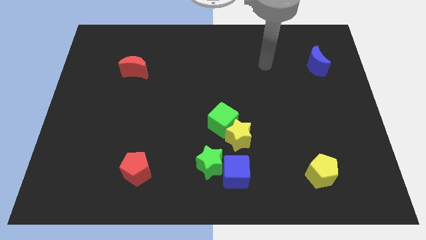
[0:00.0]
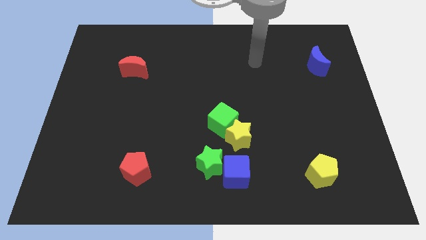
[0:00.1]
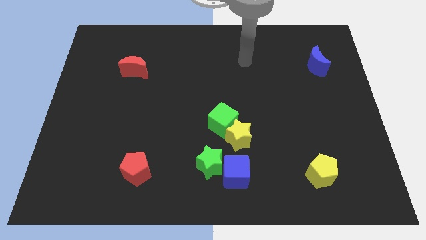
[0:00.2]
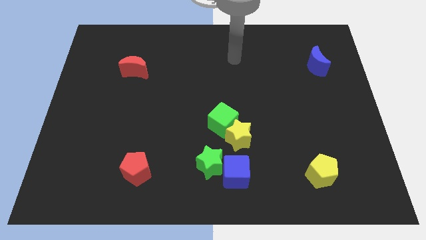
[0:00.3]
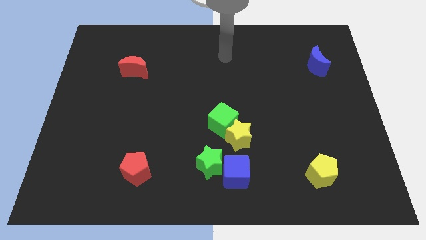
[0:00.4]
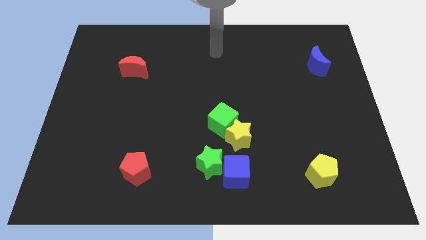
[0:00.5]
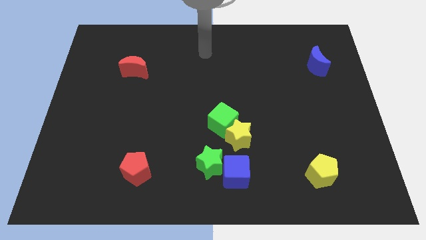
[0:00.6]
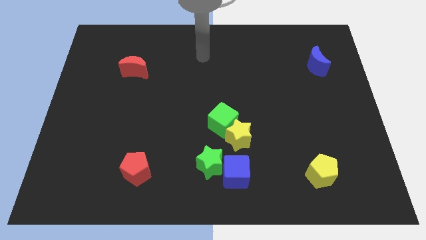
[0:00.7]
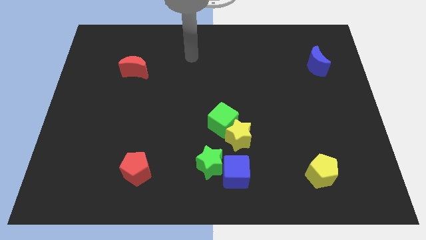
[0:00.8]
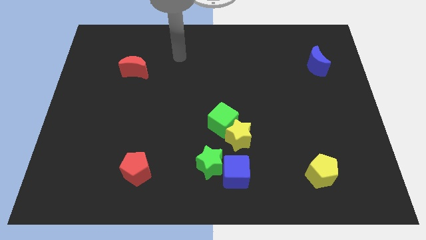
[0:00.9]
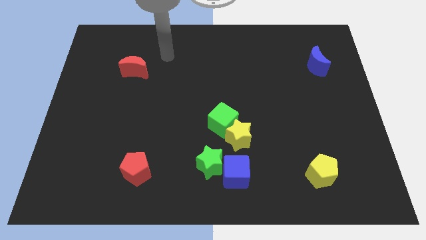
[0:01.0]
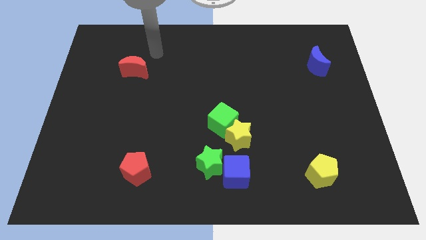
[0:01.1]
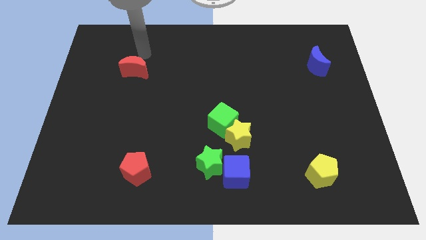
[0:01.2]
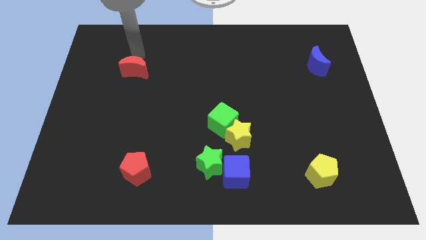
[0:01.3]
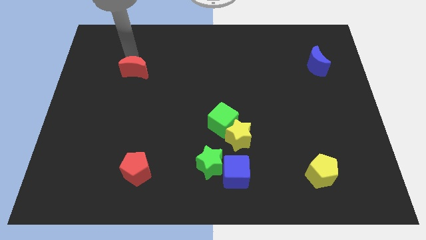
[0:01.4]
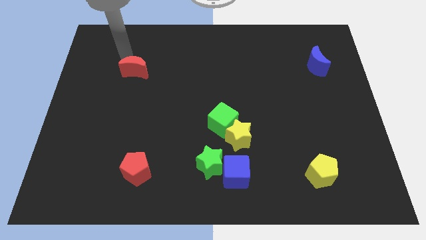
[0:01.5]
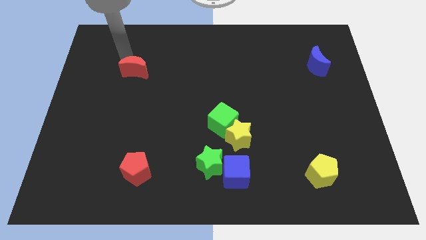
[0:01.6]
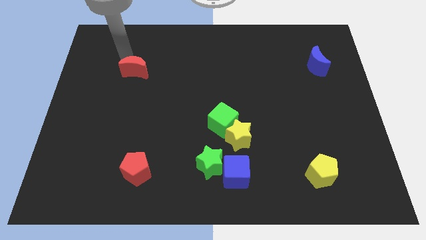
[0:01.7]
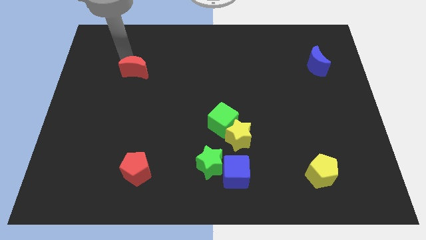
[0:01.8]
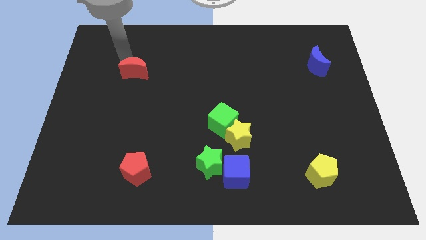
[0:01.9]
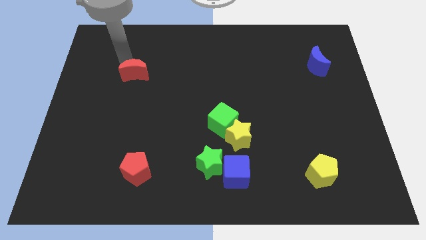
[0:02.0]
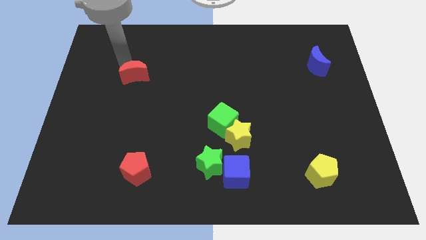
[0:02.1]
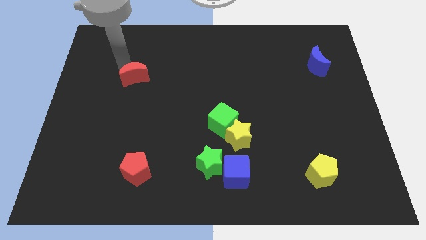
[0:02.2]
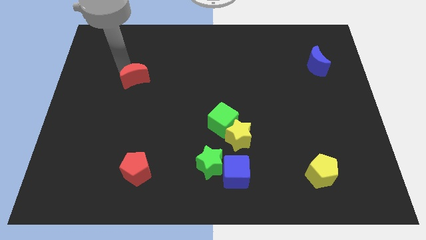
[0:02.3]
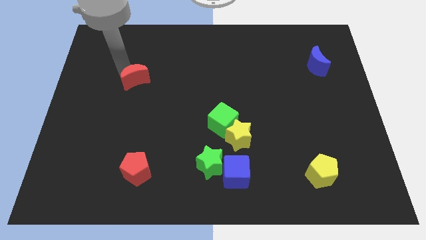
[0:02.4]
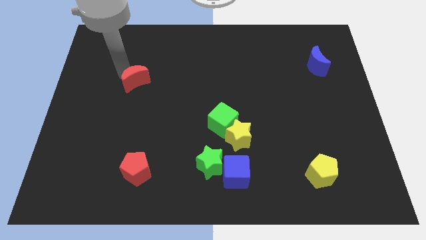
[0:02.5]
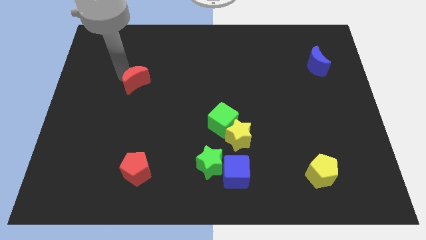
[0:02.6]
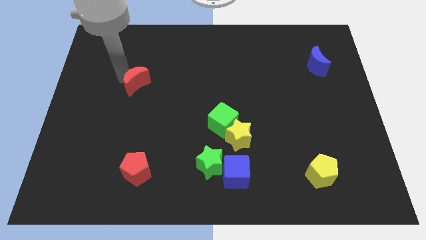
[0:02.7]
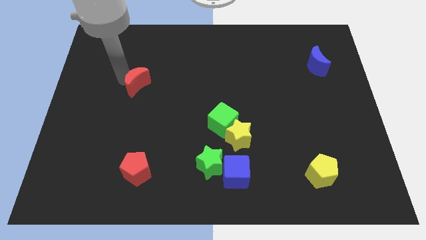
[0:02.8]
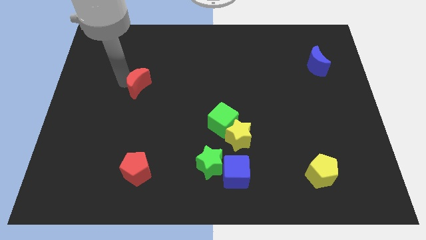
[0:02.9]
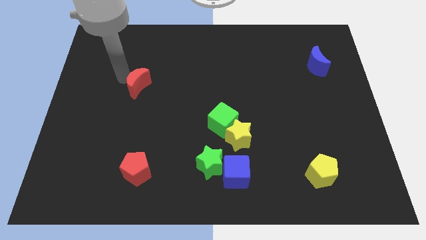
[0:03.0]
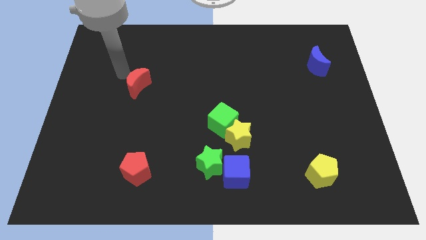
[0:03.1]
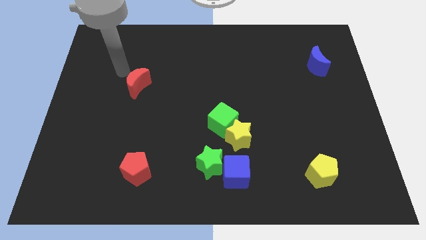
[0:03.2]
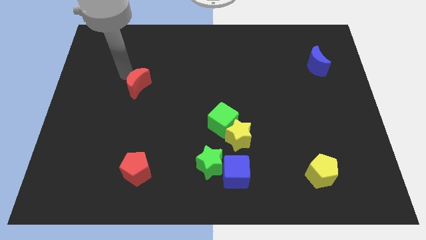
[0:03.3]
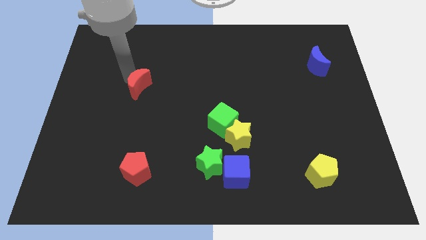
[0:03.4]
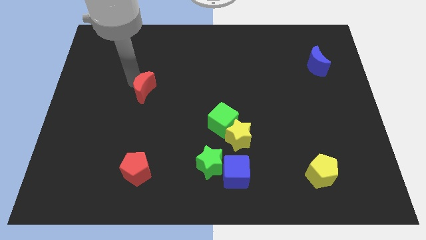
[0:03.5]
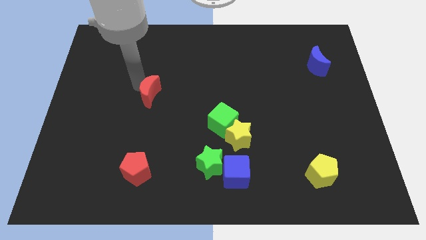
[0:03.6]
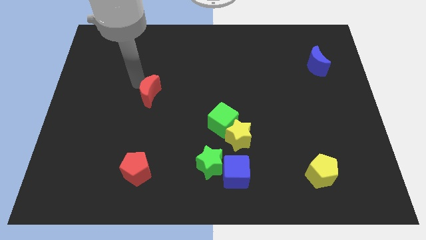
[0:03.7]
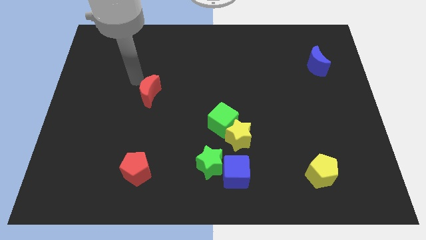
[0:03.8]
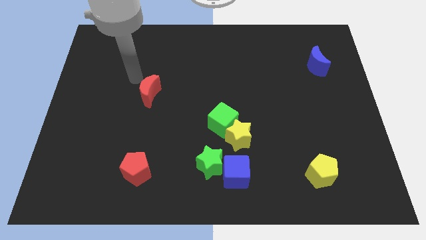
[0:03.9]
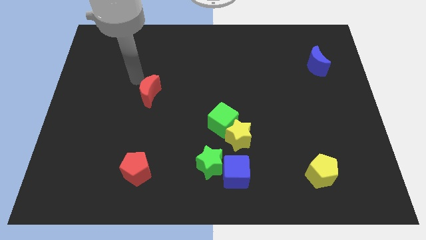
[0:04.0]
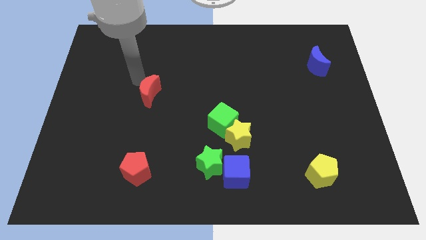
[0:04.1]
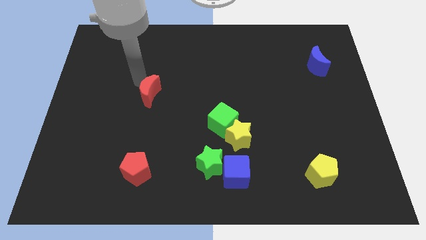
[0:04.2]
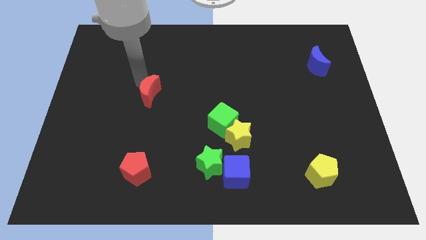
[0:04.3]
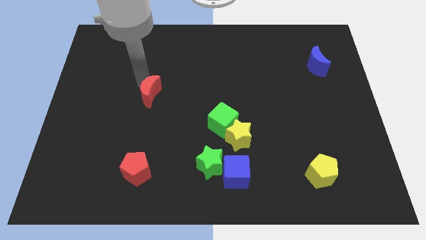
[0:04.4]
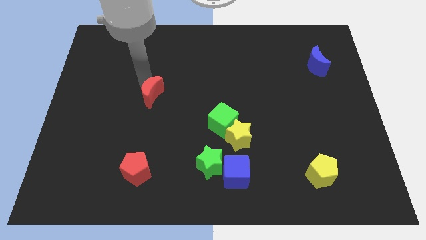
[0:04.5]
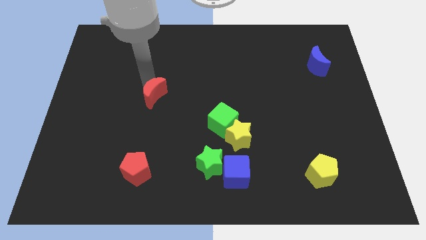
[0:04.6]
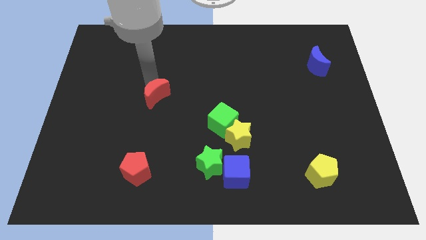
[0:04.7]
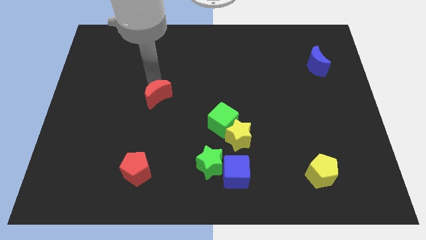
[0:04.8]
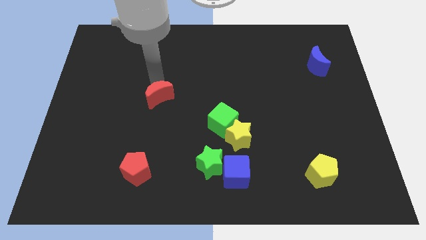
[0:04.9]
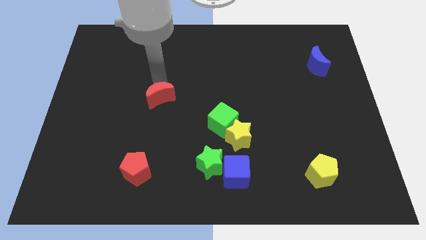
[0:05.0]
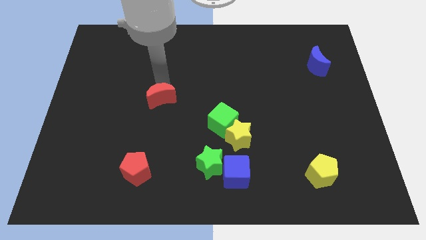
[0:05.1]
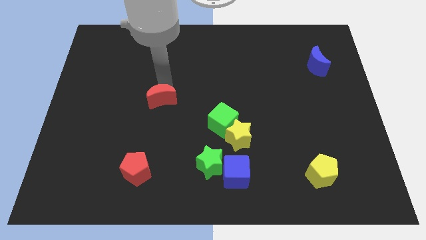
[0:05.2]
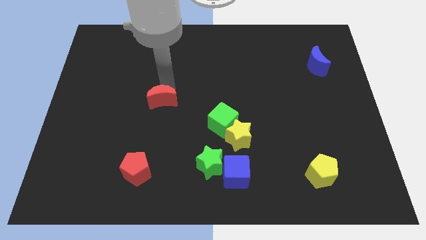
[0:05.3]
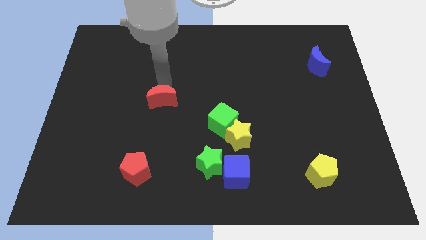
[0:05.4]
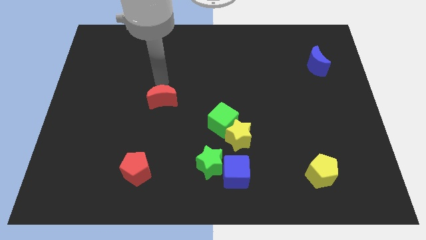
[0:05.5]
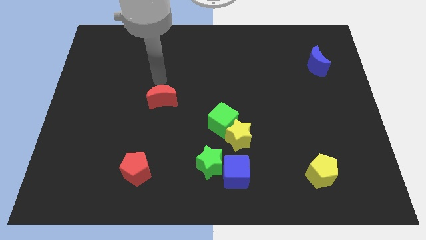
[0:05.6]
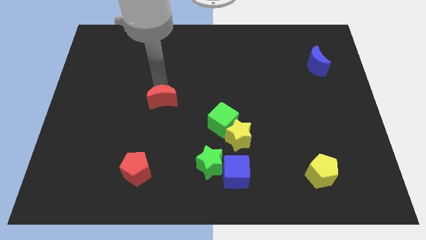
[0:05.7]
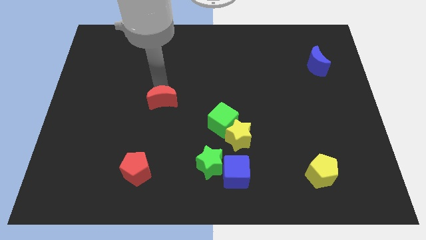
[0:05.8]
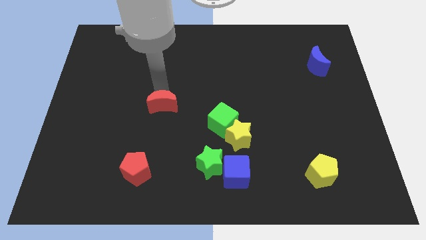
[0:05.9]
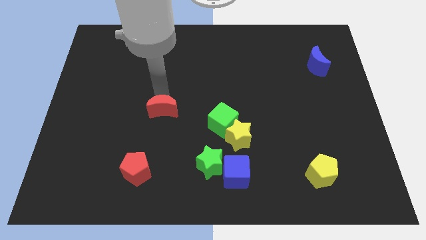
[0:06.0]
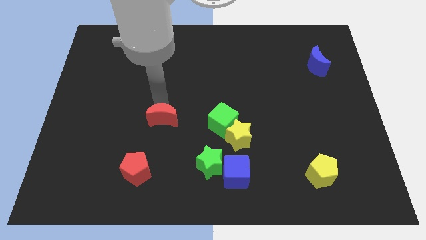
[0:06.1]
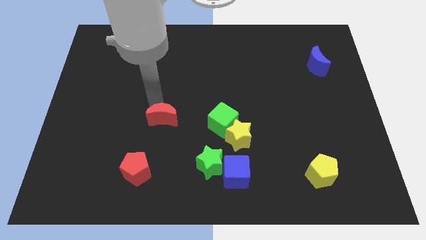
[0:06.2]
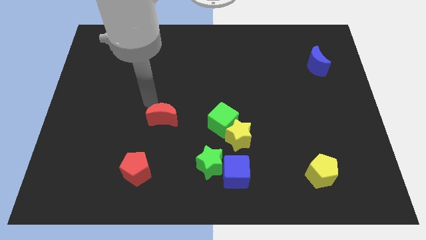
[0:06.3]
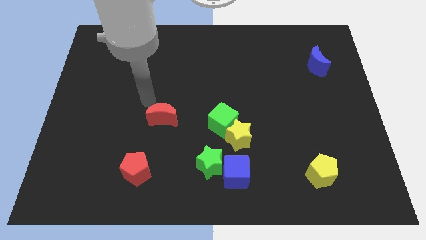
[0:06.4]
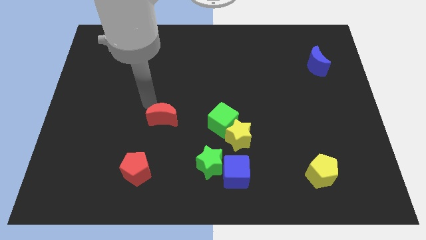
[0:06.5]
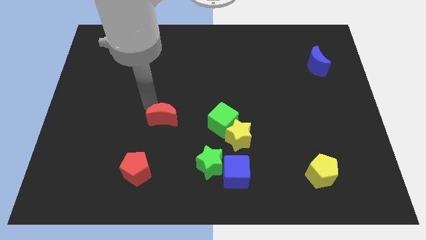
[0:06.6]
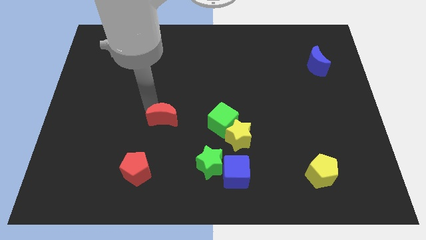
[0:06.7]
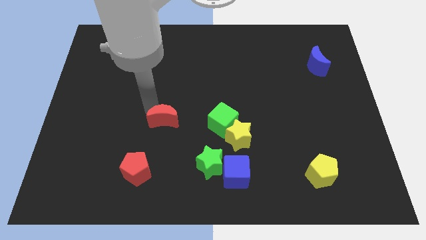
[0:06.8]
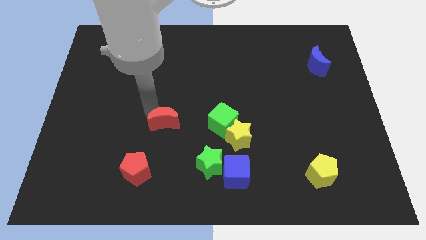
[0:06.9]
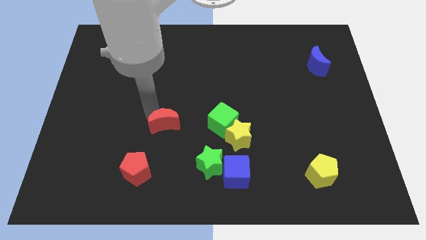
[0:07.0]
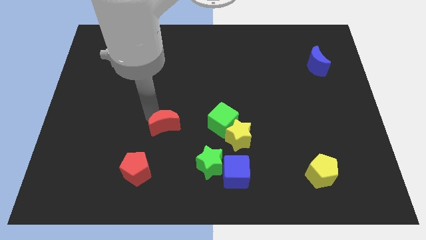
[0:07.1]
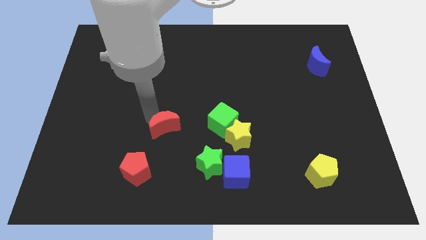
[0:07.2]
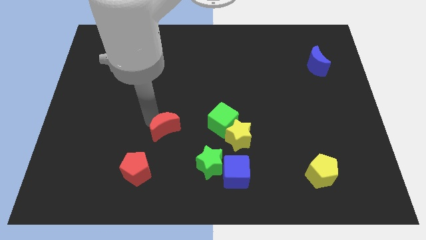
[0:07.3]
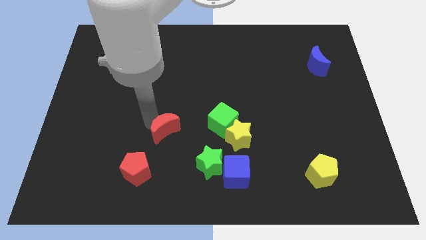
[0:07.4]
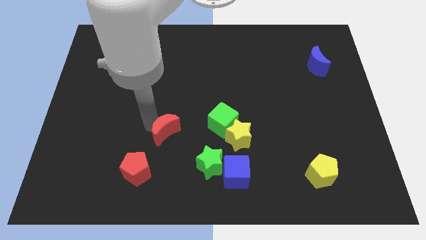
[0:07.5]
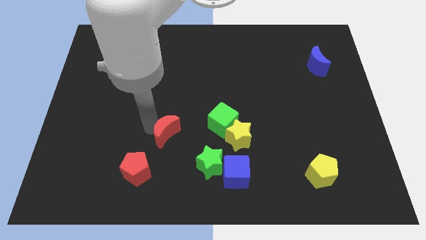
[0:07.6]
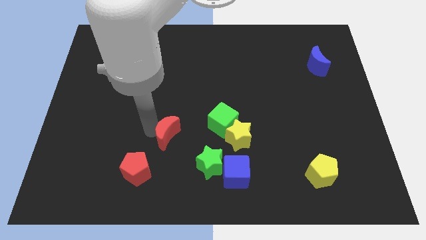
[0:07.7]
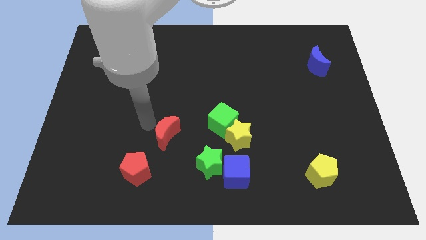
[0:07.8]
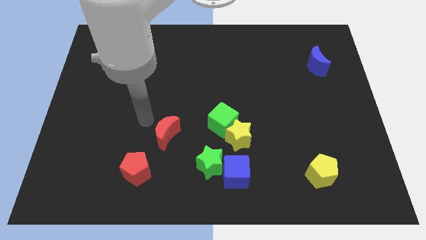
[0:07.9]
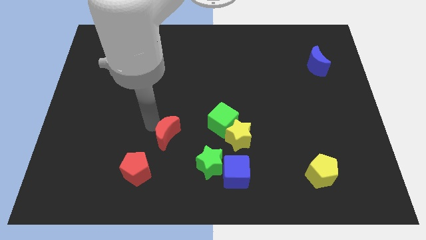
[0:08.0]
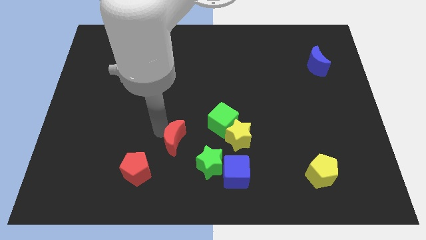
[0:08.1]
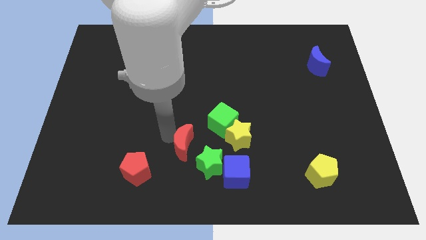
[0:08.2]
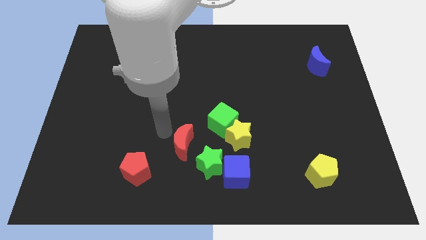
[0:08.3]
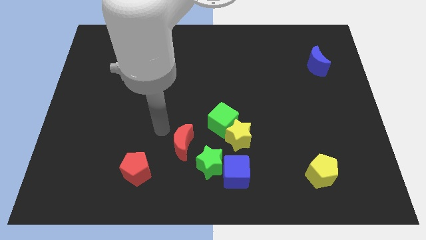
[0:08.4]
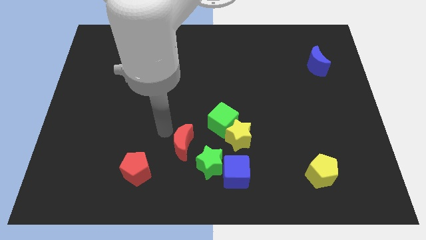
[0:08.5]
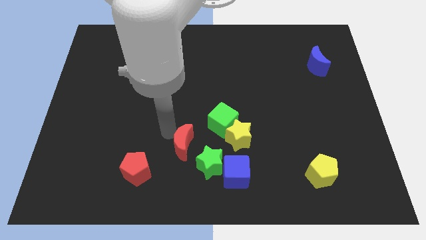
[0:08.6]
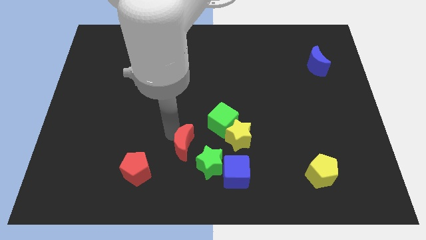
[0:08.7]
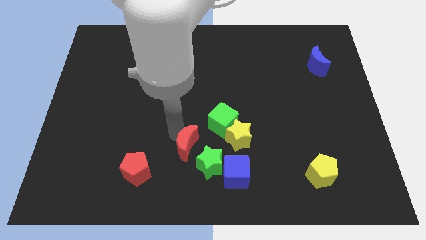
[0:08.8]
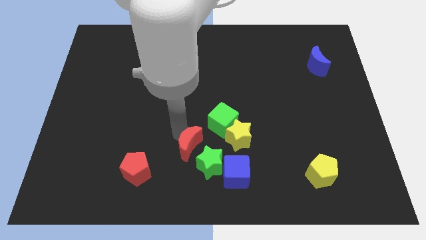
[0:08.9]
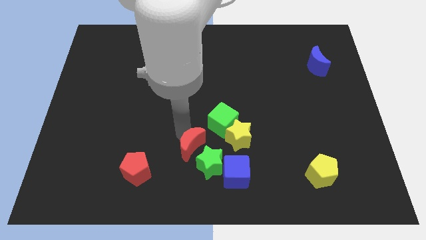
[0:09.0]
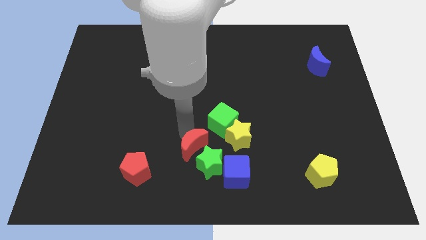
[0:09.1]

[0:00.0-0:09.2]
push the red moon to the green star
